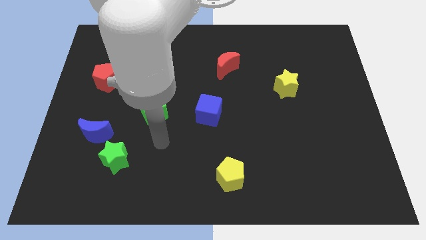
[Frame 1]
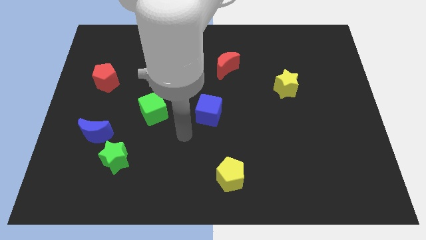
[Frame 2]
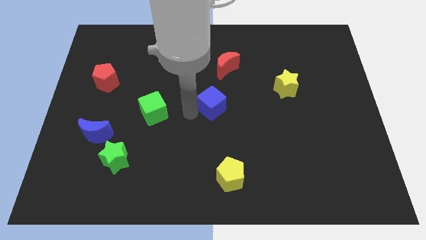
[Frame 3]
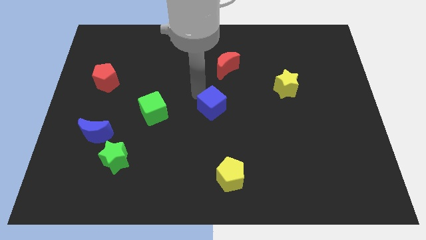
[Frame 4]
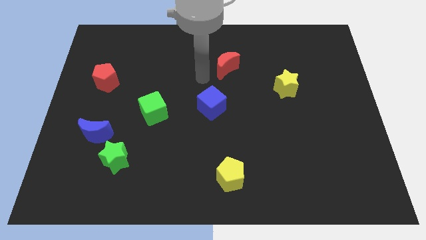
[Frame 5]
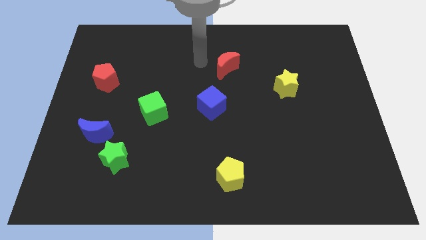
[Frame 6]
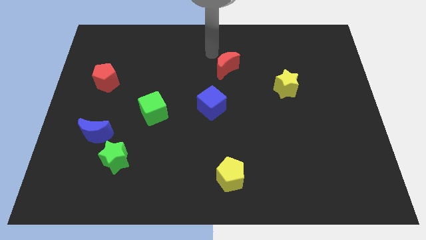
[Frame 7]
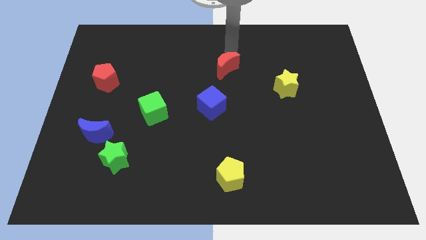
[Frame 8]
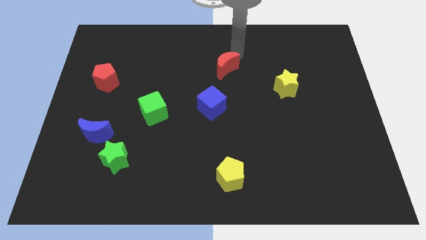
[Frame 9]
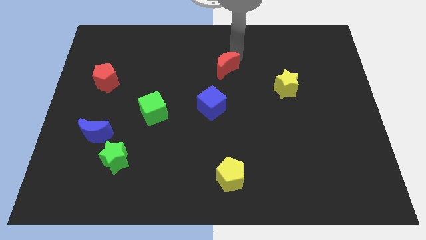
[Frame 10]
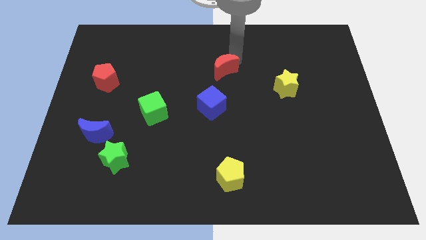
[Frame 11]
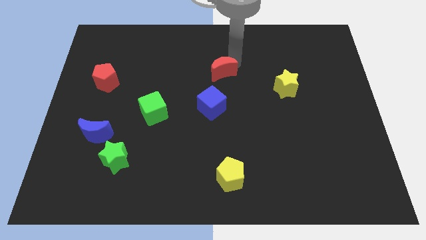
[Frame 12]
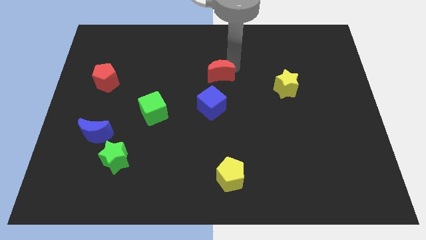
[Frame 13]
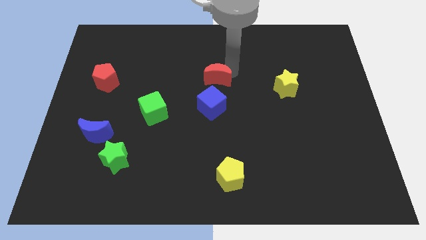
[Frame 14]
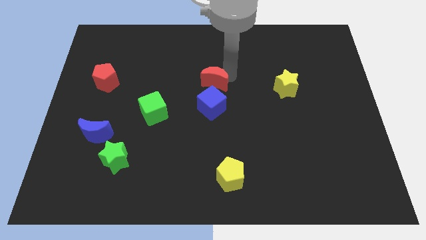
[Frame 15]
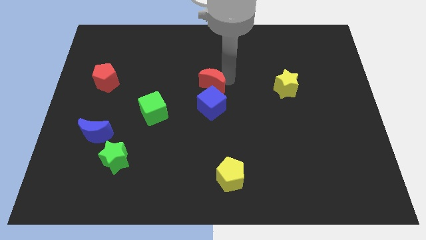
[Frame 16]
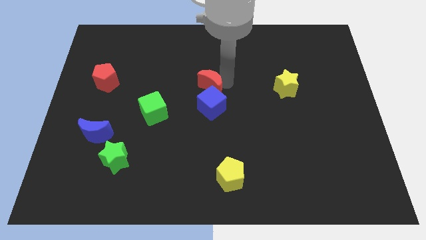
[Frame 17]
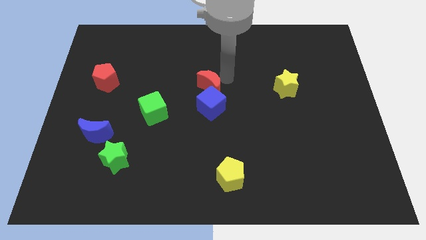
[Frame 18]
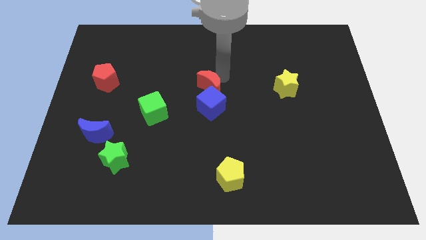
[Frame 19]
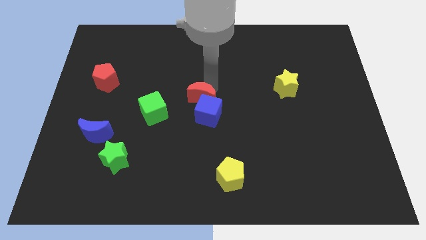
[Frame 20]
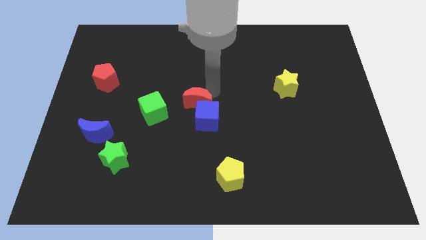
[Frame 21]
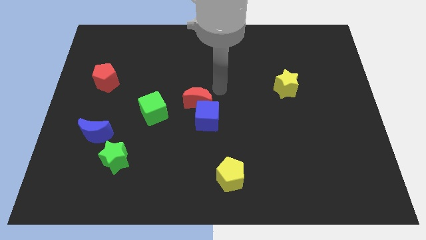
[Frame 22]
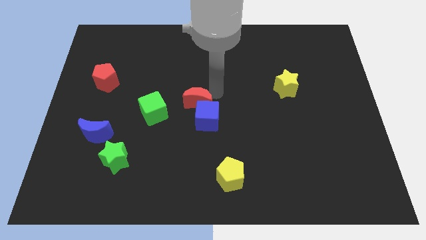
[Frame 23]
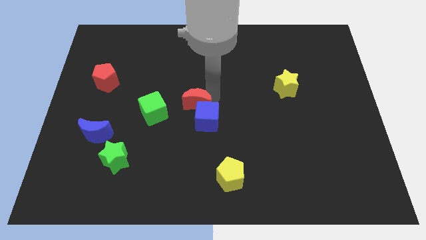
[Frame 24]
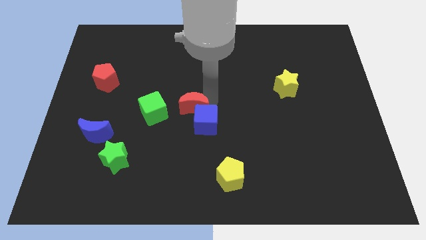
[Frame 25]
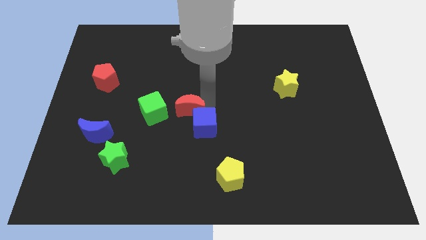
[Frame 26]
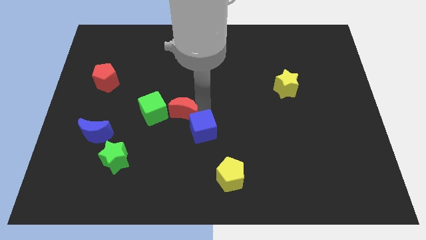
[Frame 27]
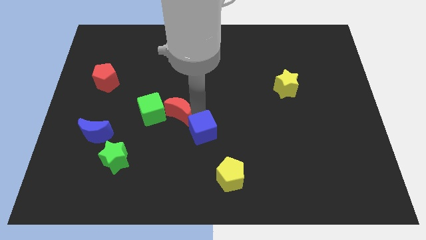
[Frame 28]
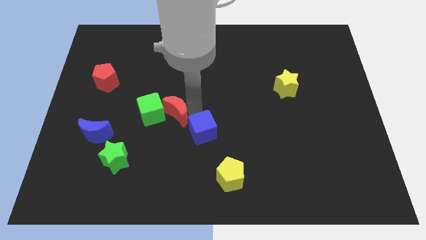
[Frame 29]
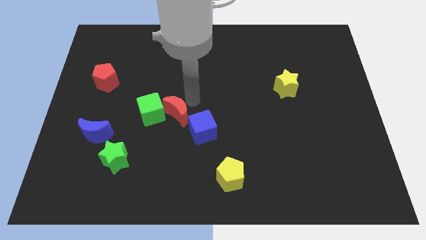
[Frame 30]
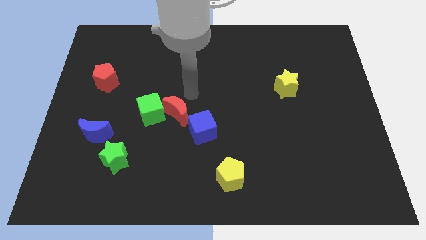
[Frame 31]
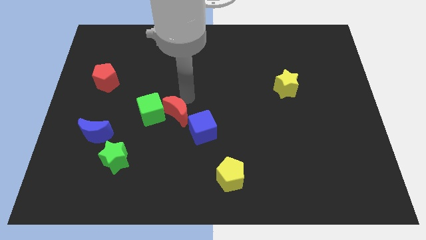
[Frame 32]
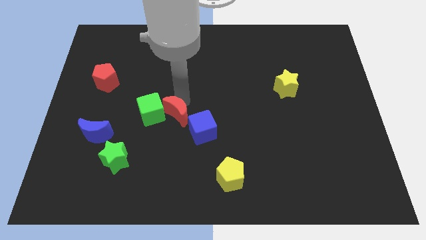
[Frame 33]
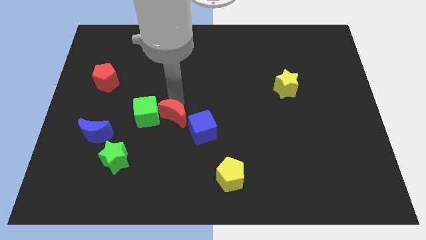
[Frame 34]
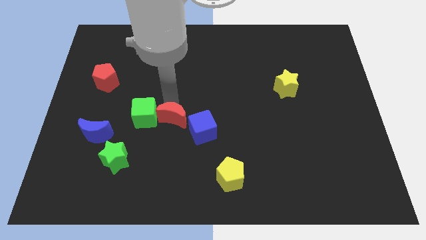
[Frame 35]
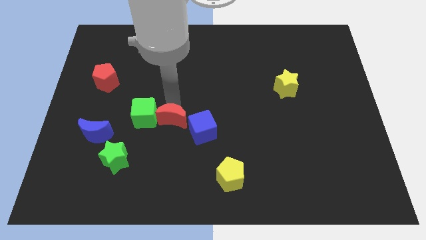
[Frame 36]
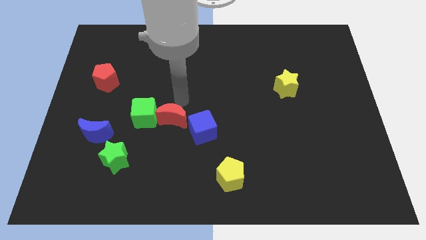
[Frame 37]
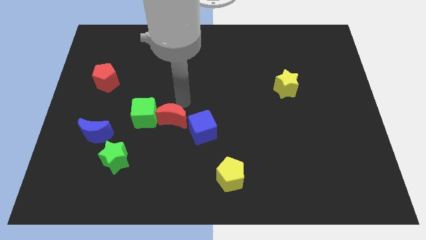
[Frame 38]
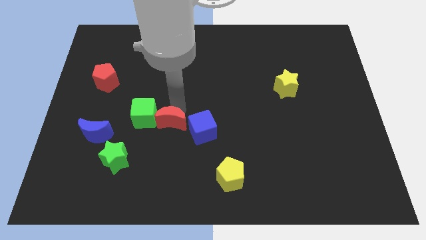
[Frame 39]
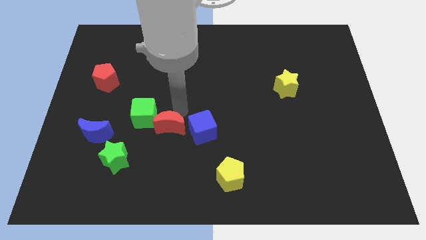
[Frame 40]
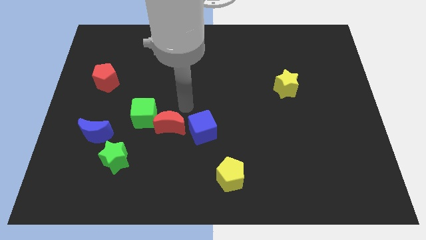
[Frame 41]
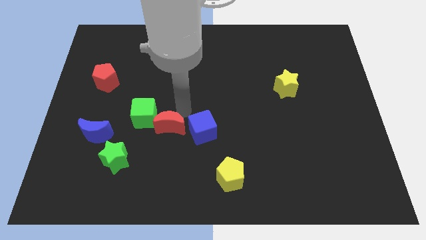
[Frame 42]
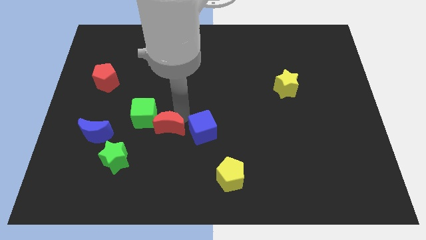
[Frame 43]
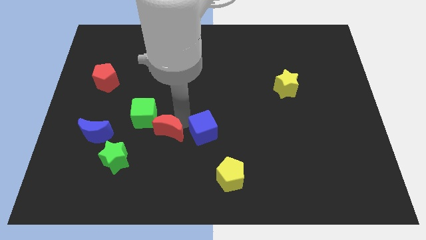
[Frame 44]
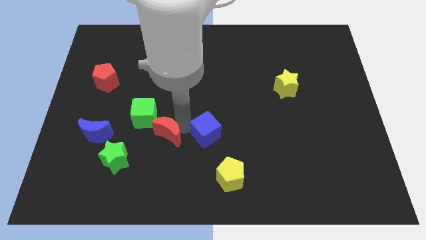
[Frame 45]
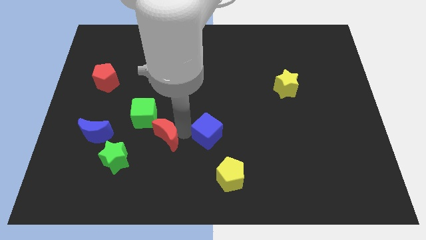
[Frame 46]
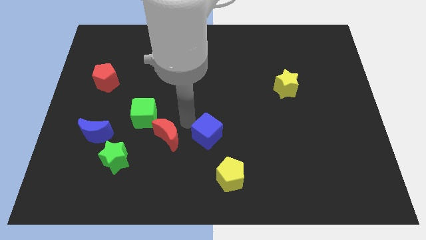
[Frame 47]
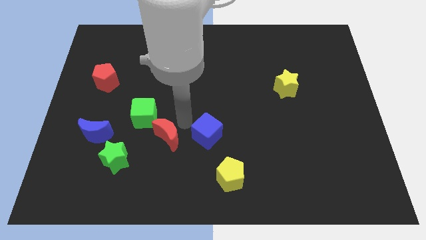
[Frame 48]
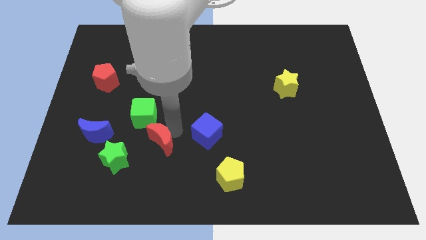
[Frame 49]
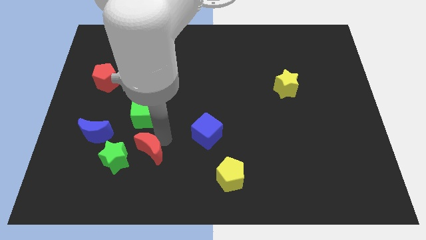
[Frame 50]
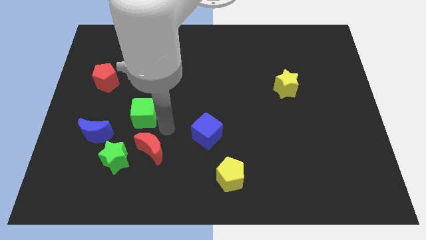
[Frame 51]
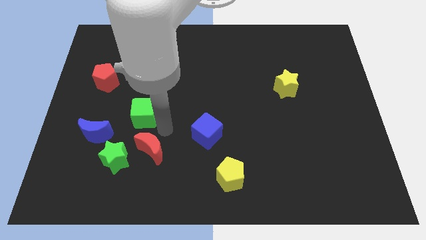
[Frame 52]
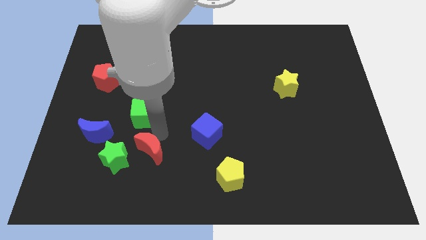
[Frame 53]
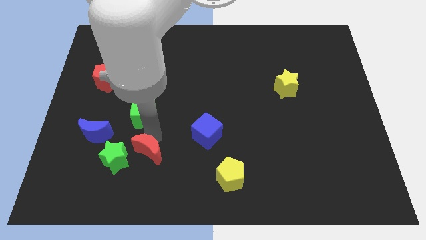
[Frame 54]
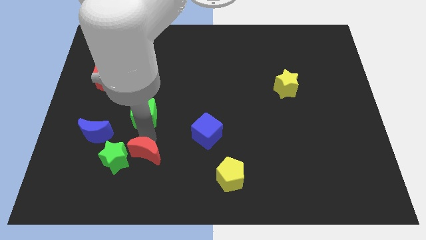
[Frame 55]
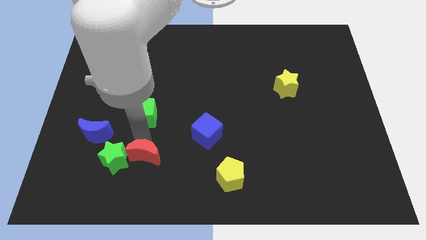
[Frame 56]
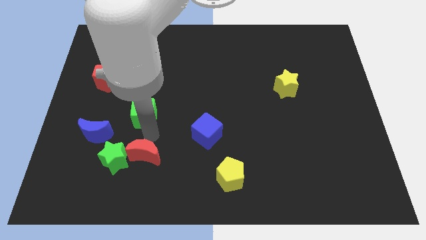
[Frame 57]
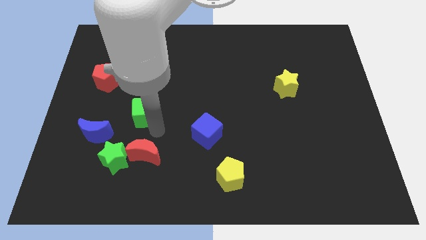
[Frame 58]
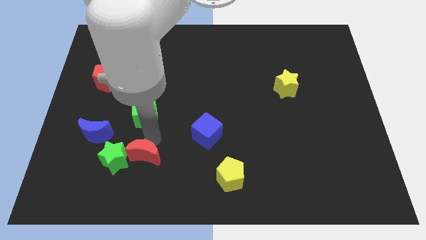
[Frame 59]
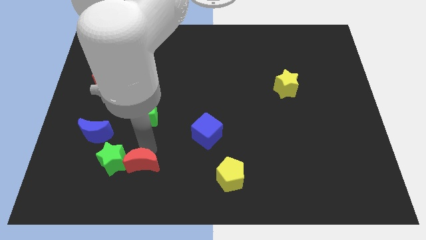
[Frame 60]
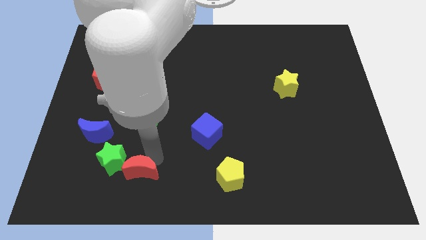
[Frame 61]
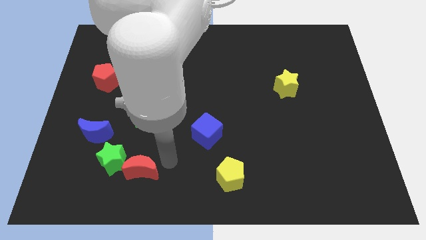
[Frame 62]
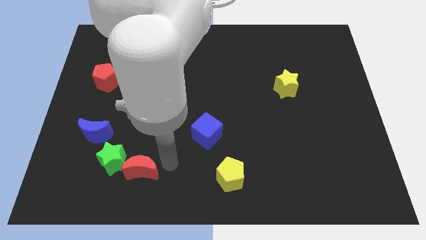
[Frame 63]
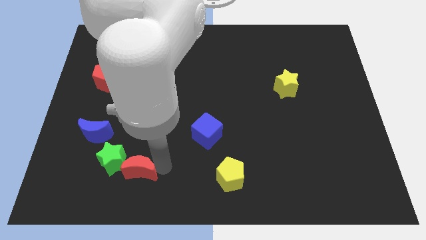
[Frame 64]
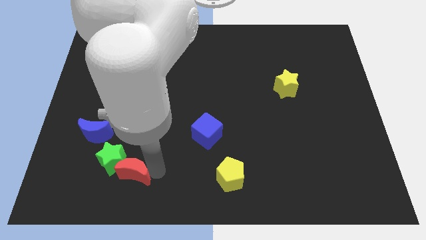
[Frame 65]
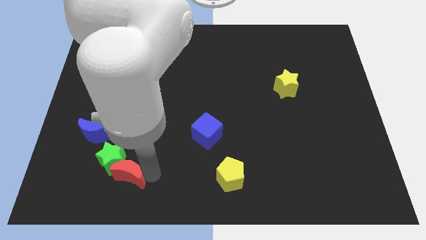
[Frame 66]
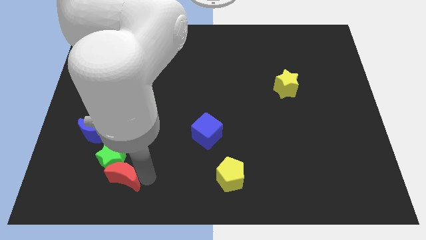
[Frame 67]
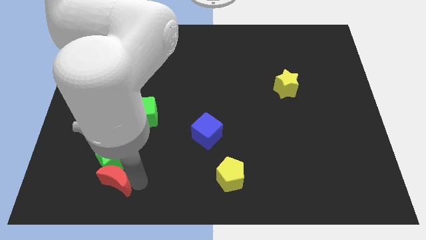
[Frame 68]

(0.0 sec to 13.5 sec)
slide the red moon to the bottom left side of the green star

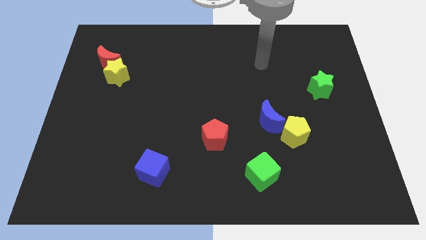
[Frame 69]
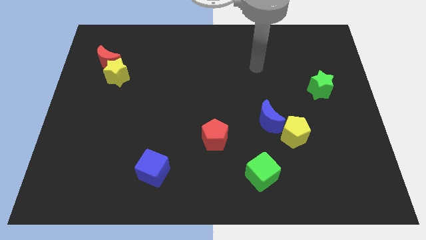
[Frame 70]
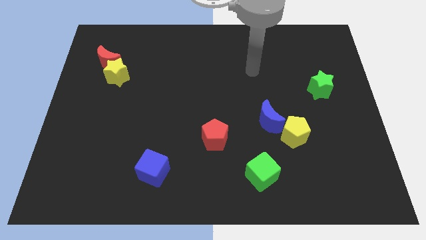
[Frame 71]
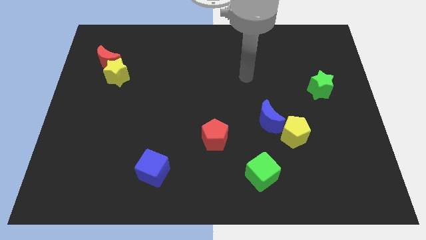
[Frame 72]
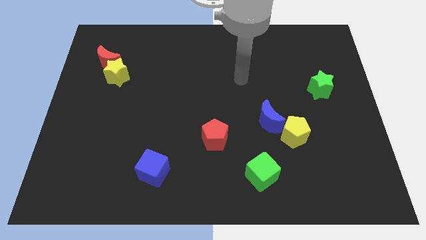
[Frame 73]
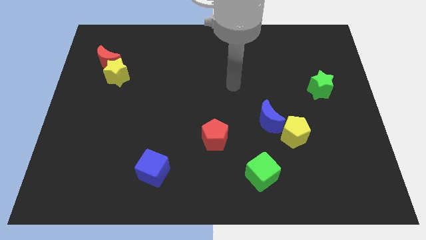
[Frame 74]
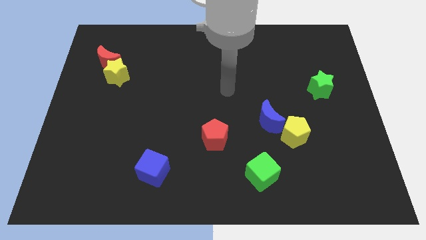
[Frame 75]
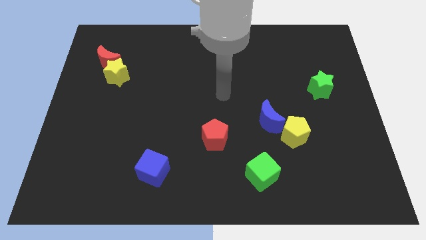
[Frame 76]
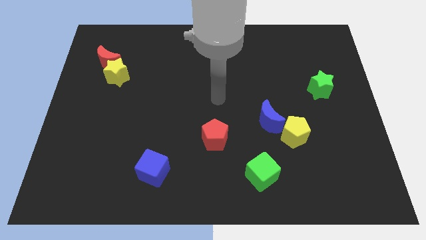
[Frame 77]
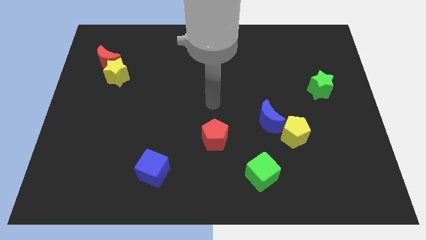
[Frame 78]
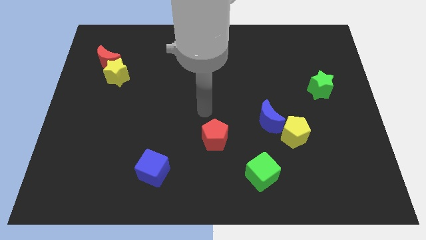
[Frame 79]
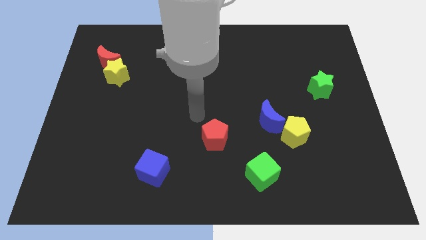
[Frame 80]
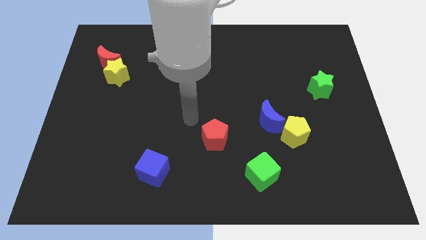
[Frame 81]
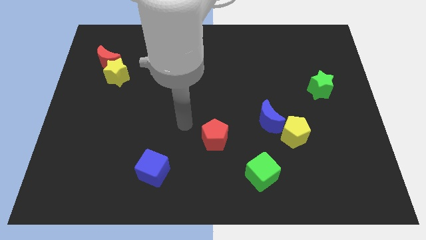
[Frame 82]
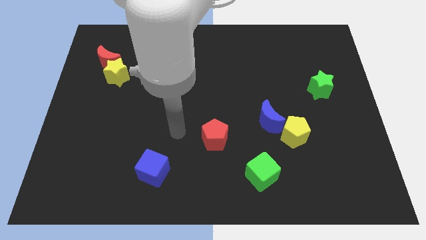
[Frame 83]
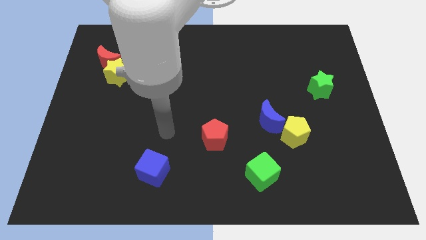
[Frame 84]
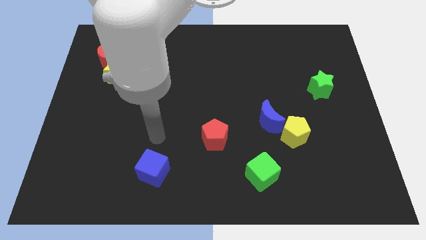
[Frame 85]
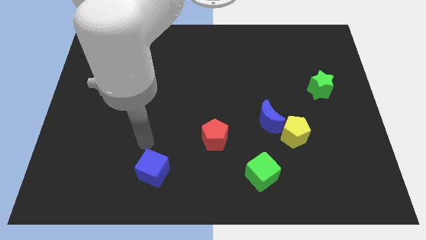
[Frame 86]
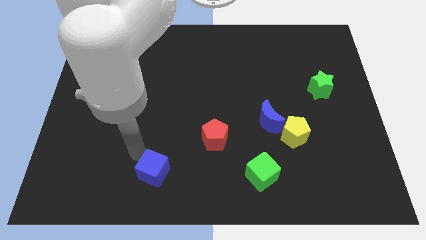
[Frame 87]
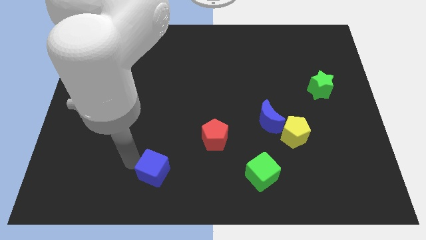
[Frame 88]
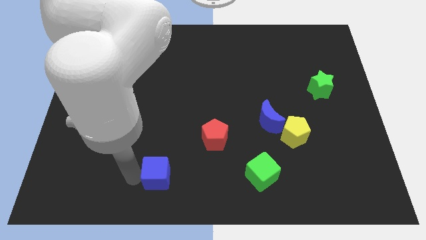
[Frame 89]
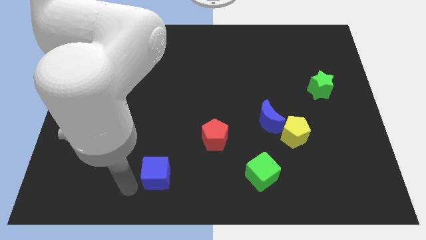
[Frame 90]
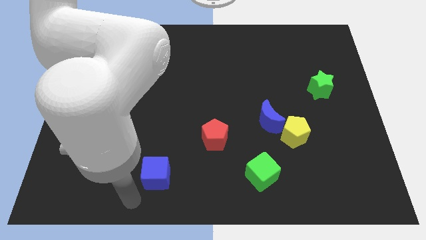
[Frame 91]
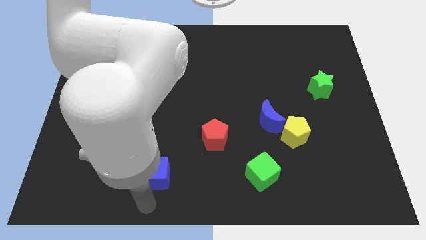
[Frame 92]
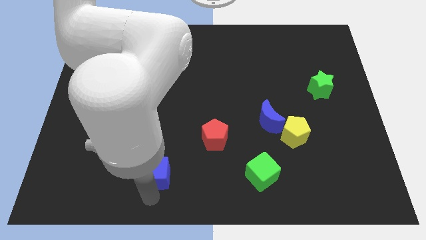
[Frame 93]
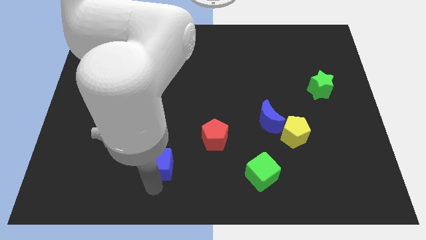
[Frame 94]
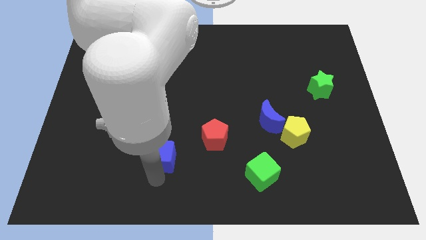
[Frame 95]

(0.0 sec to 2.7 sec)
move the blue cube to the left of the red pentagon
